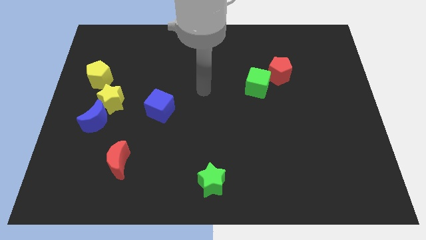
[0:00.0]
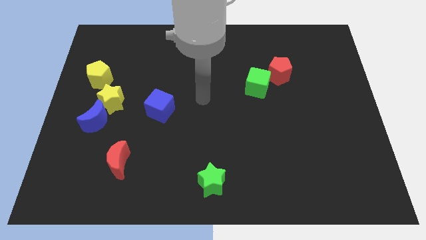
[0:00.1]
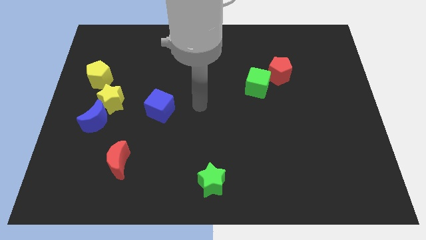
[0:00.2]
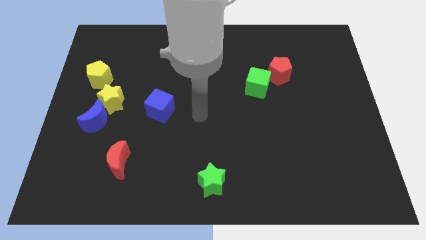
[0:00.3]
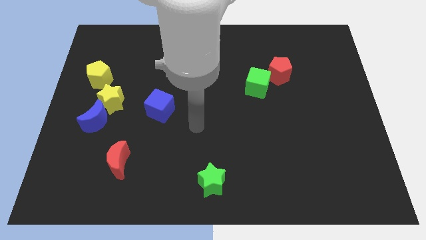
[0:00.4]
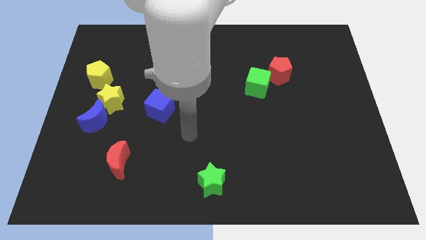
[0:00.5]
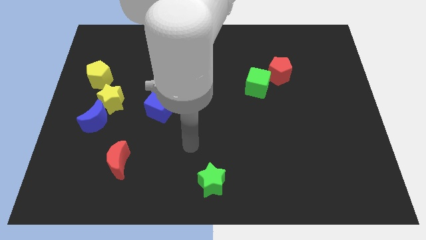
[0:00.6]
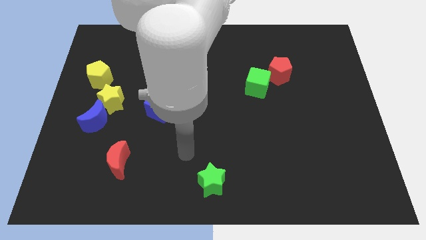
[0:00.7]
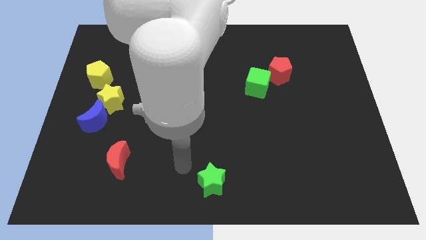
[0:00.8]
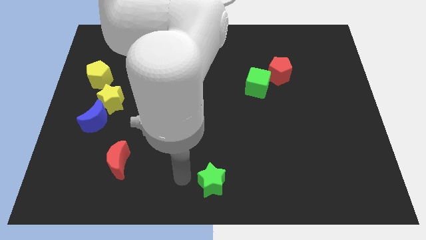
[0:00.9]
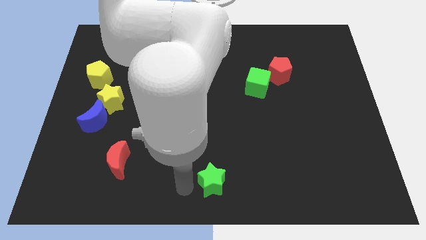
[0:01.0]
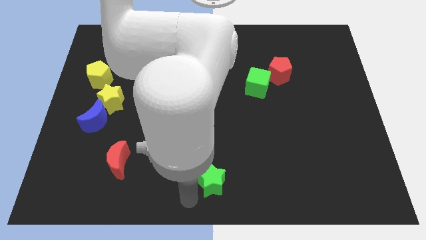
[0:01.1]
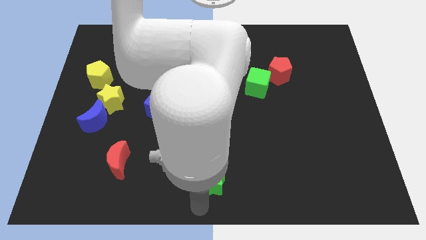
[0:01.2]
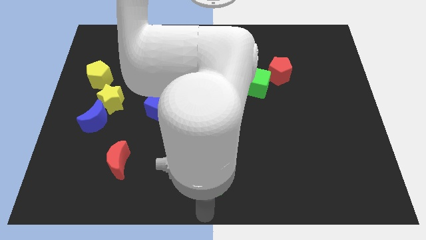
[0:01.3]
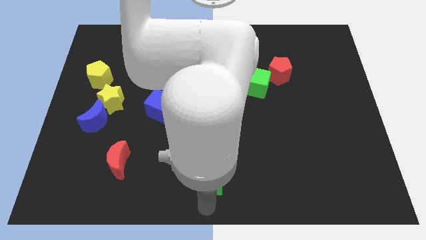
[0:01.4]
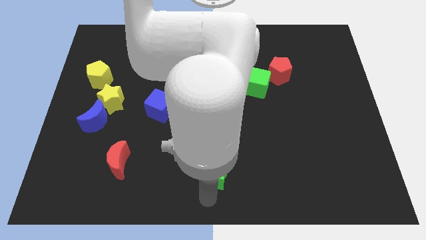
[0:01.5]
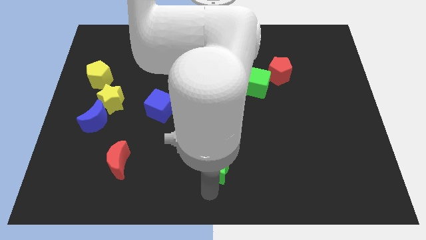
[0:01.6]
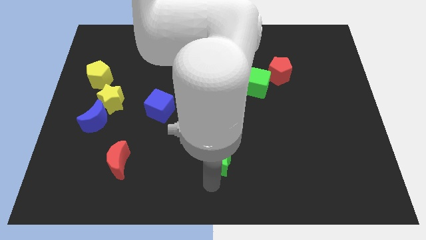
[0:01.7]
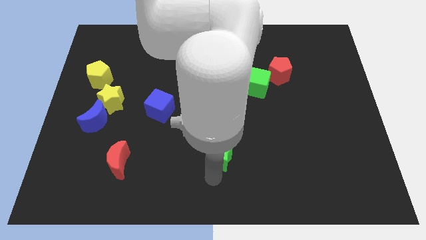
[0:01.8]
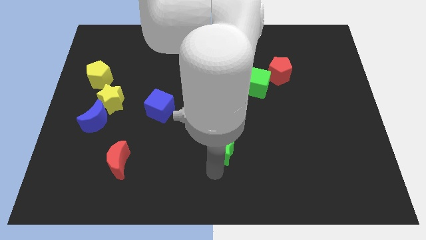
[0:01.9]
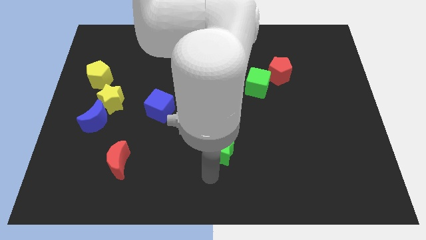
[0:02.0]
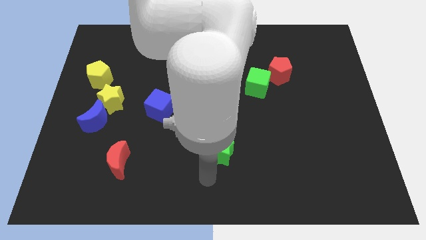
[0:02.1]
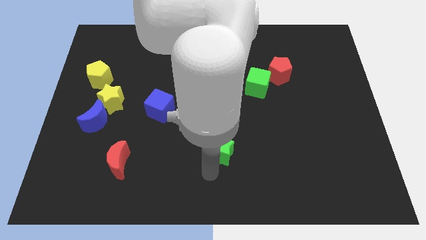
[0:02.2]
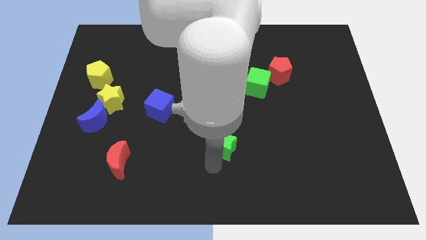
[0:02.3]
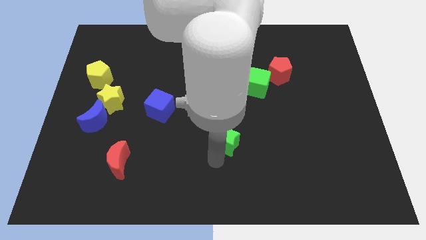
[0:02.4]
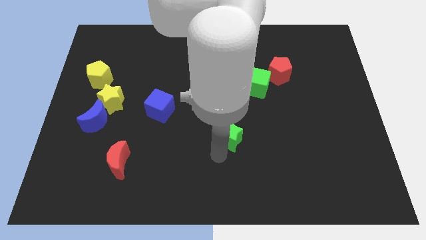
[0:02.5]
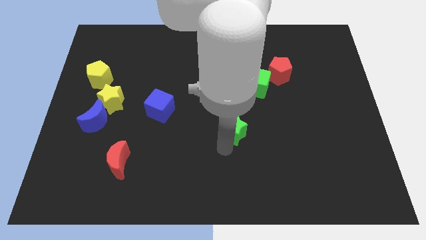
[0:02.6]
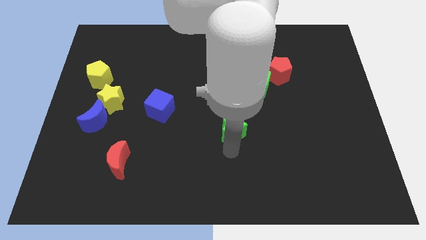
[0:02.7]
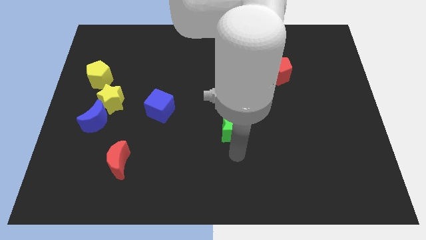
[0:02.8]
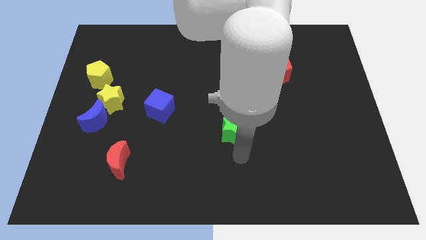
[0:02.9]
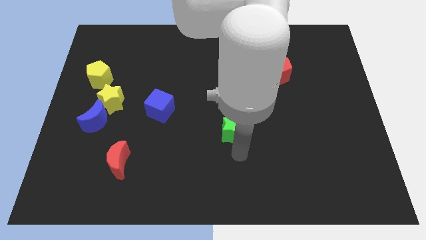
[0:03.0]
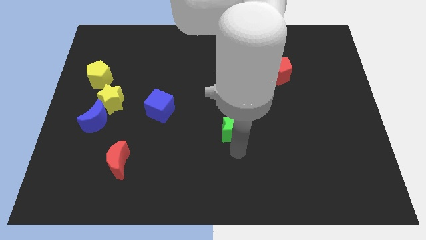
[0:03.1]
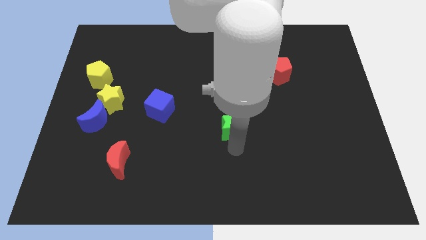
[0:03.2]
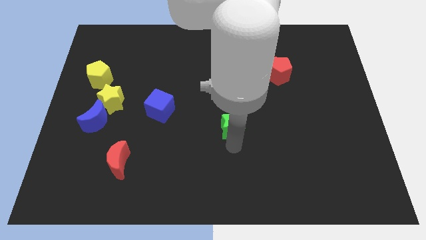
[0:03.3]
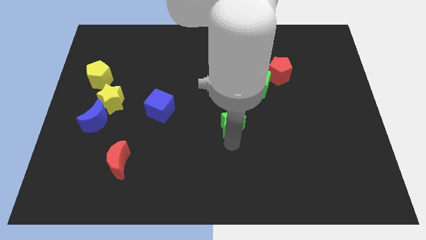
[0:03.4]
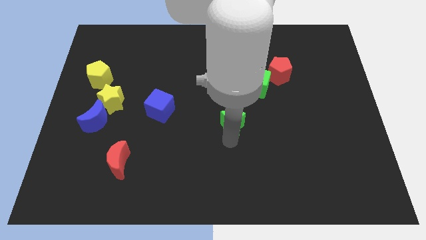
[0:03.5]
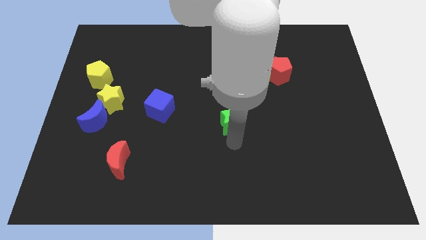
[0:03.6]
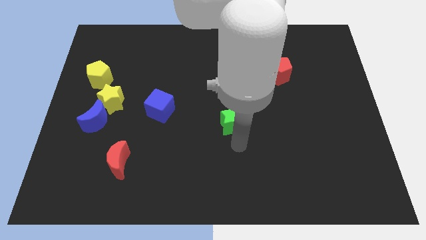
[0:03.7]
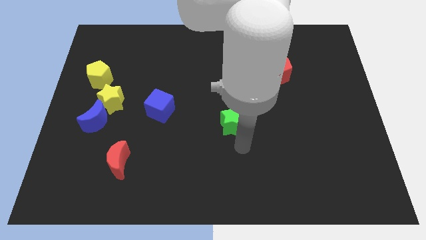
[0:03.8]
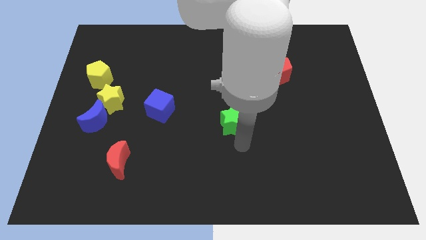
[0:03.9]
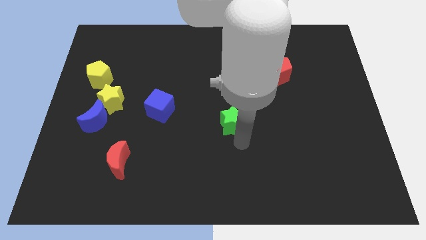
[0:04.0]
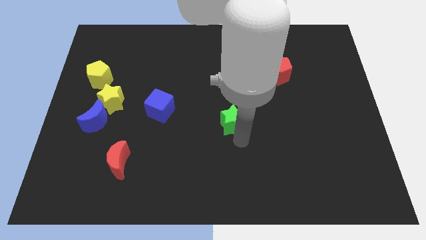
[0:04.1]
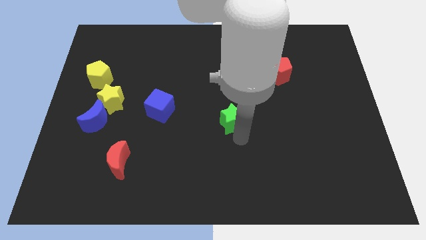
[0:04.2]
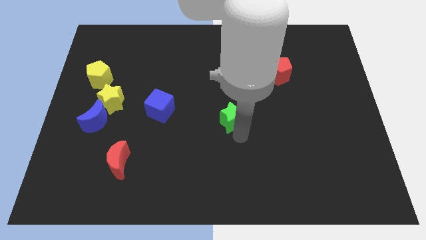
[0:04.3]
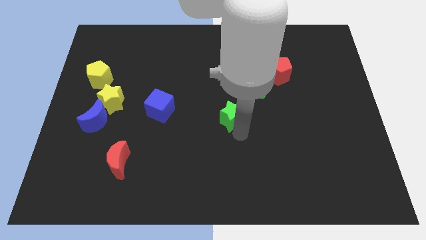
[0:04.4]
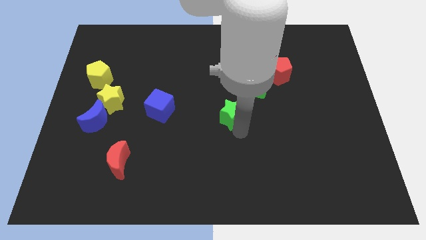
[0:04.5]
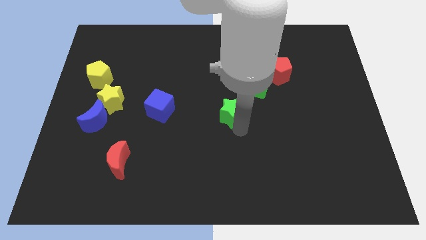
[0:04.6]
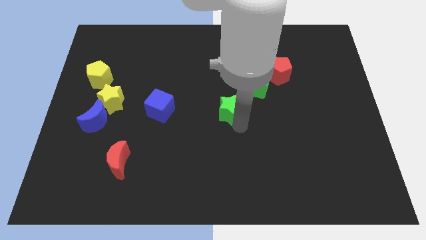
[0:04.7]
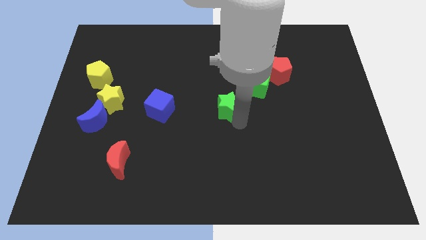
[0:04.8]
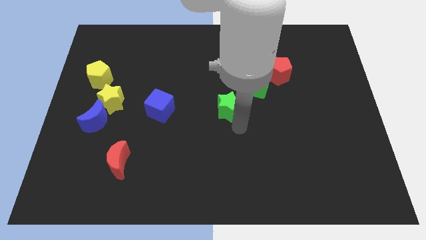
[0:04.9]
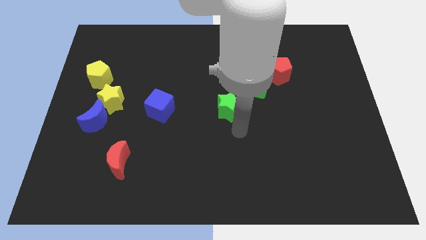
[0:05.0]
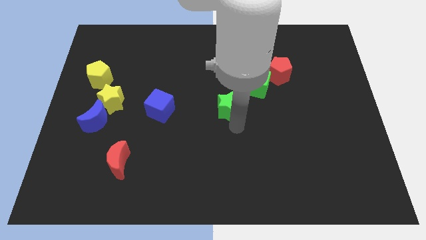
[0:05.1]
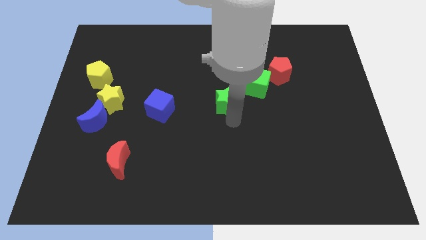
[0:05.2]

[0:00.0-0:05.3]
move the green star up

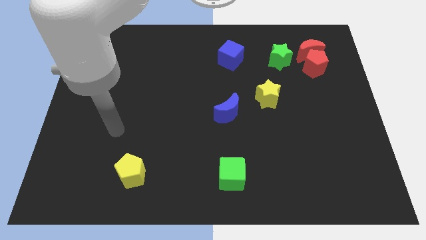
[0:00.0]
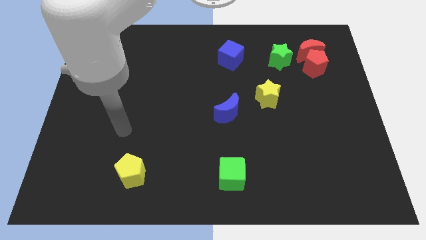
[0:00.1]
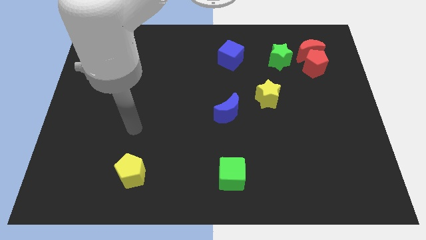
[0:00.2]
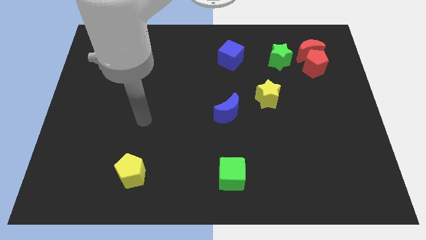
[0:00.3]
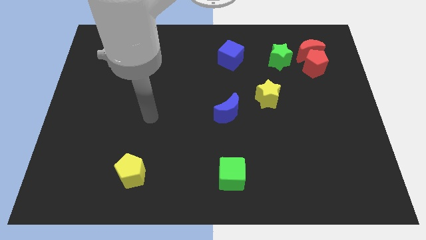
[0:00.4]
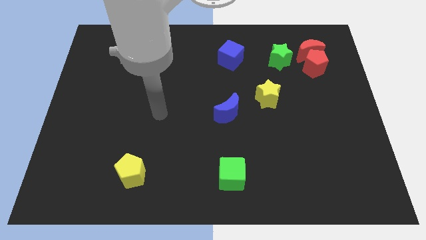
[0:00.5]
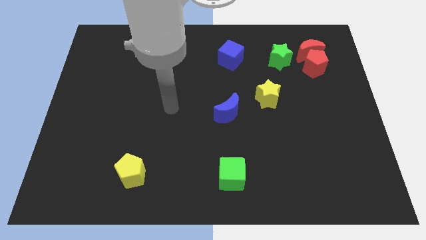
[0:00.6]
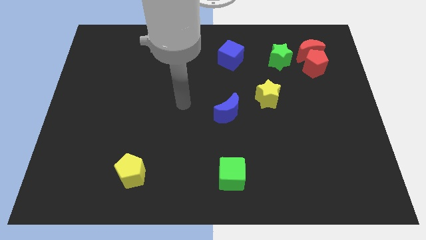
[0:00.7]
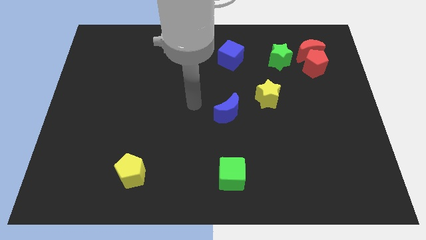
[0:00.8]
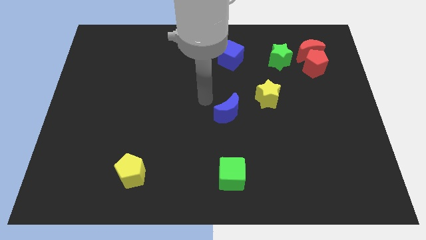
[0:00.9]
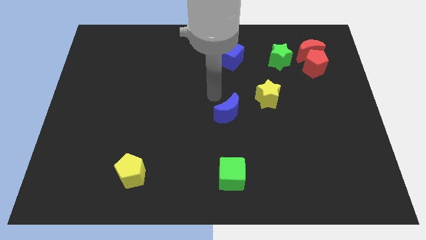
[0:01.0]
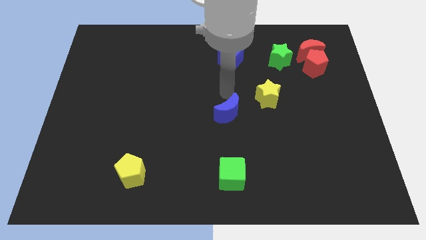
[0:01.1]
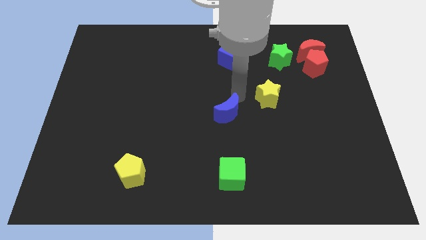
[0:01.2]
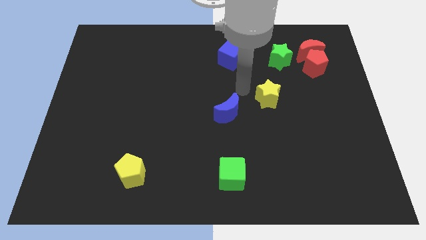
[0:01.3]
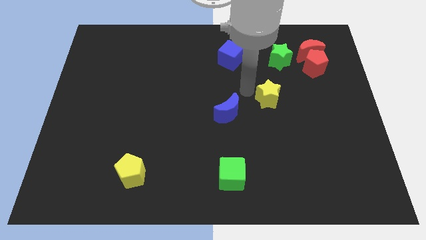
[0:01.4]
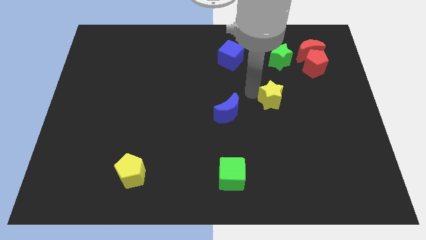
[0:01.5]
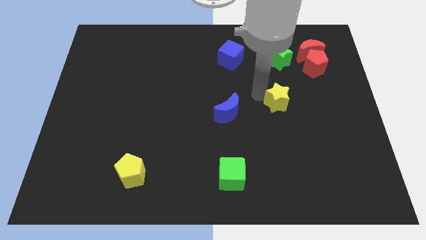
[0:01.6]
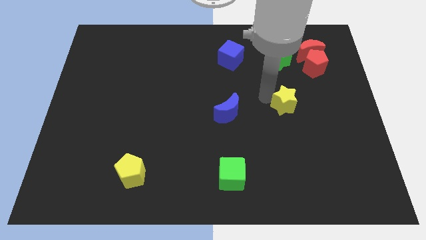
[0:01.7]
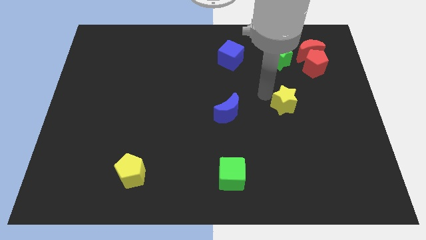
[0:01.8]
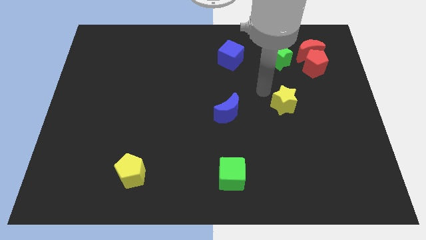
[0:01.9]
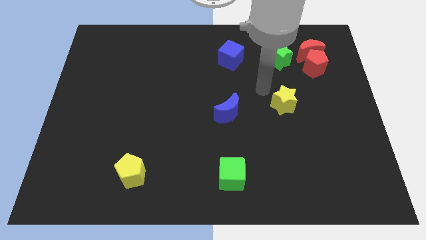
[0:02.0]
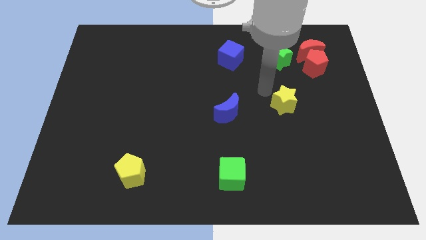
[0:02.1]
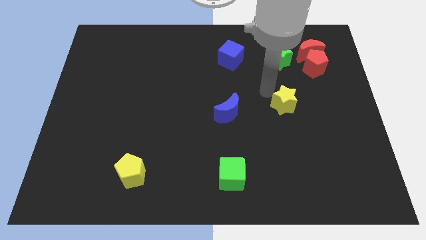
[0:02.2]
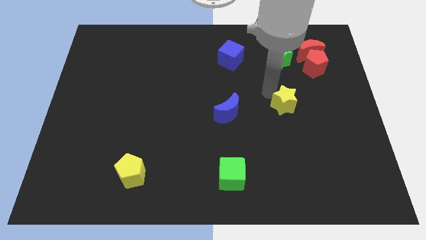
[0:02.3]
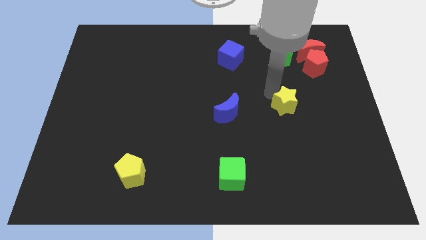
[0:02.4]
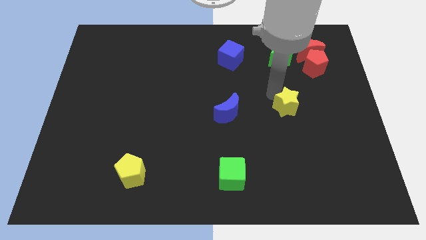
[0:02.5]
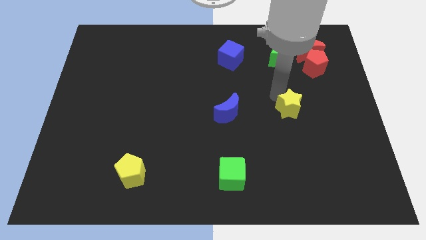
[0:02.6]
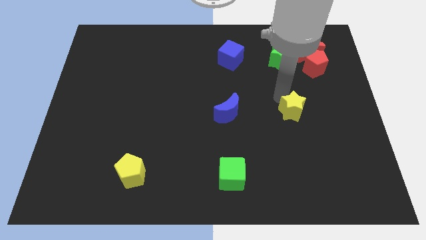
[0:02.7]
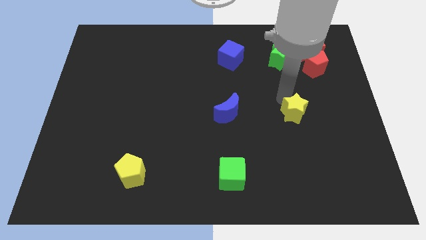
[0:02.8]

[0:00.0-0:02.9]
slide the yellow star down and then to the right somewhat
